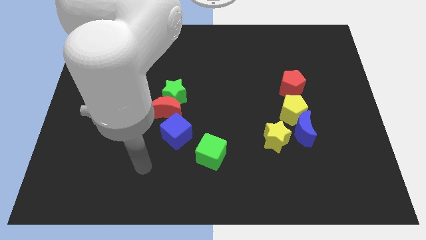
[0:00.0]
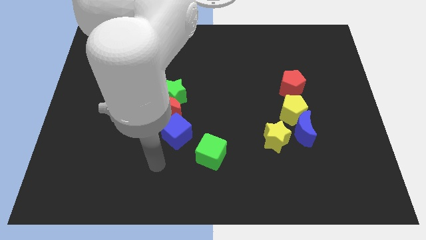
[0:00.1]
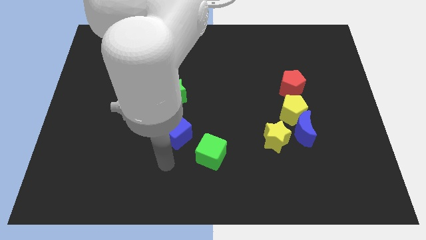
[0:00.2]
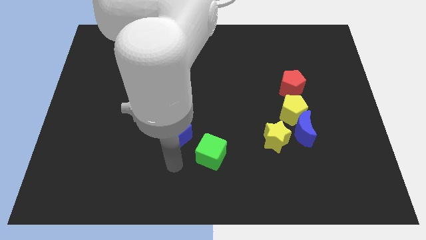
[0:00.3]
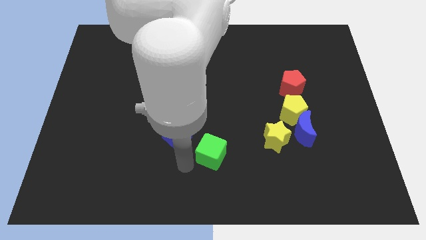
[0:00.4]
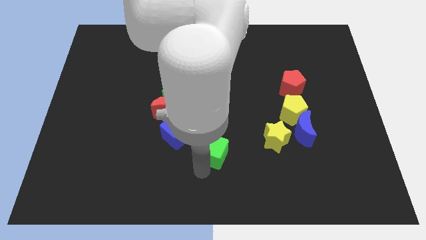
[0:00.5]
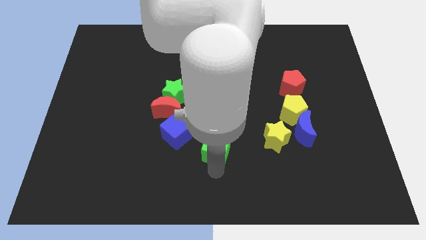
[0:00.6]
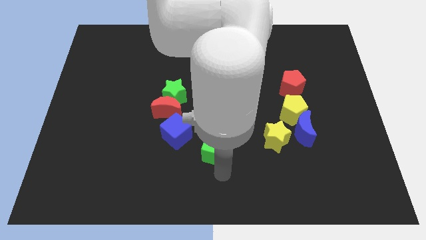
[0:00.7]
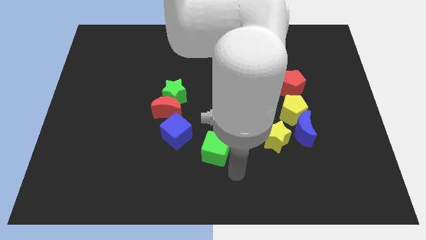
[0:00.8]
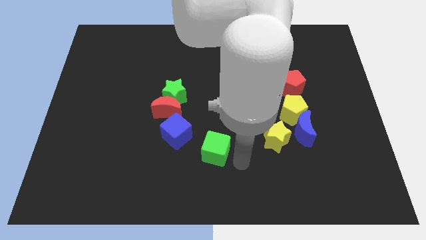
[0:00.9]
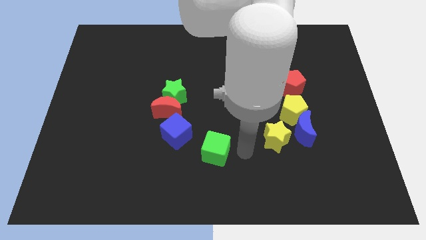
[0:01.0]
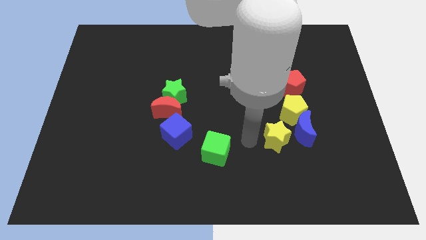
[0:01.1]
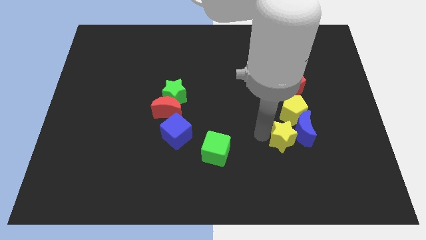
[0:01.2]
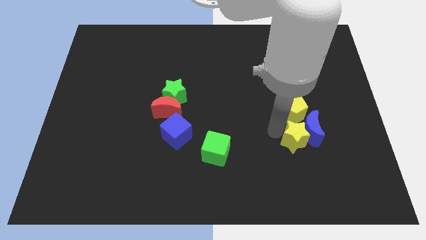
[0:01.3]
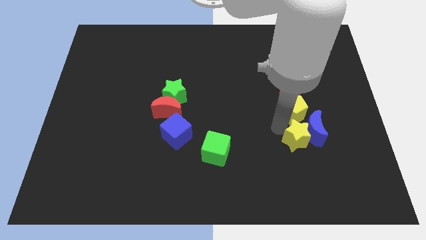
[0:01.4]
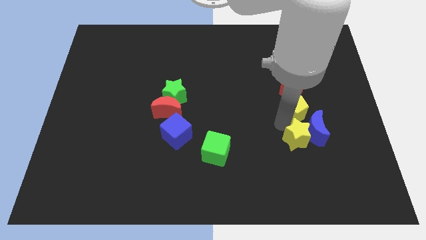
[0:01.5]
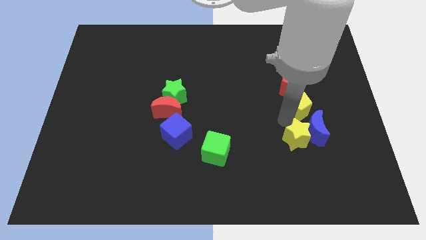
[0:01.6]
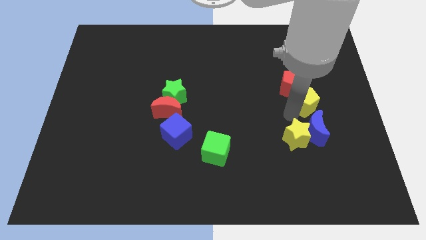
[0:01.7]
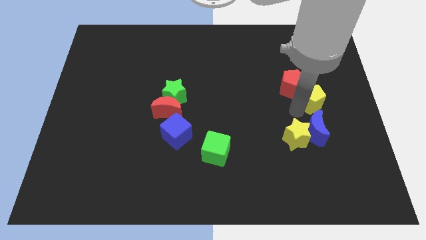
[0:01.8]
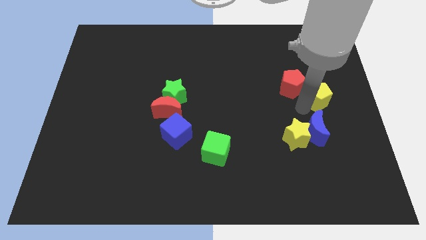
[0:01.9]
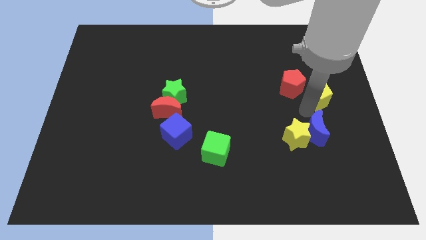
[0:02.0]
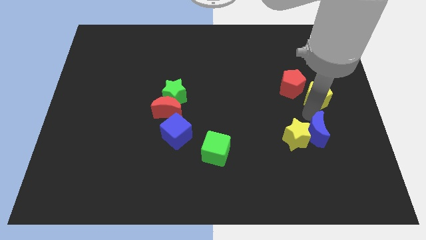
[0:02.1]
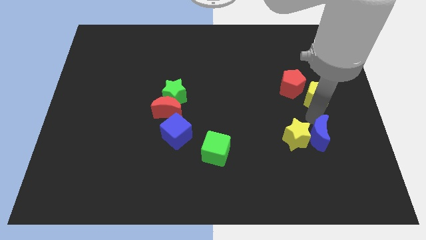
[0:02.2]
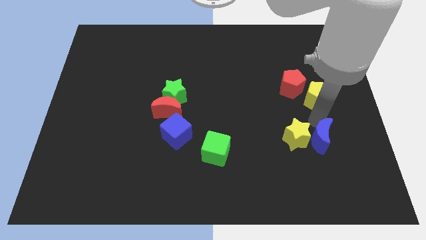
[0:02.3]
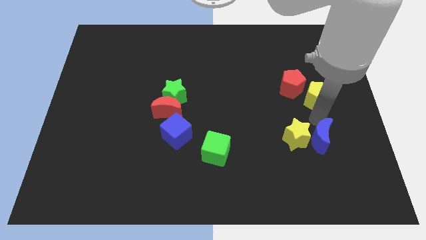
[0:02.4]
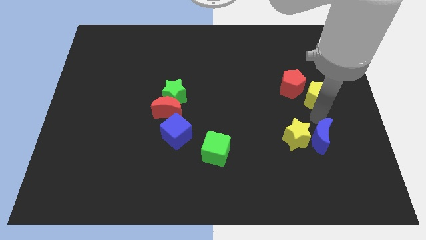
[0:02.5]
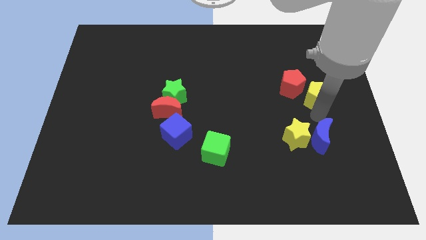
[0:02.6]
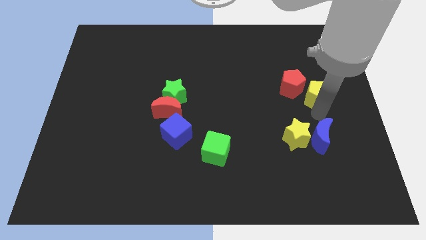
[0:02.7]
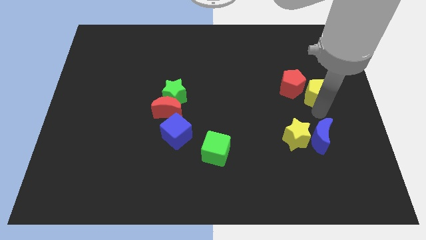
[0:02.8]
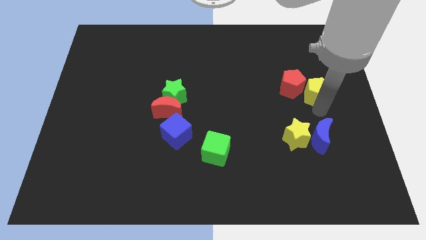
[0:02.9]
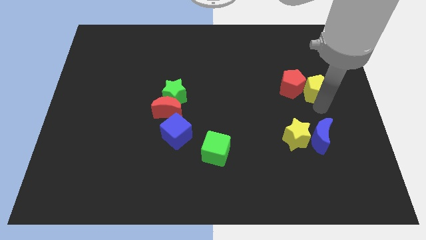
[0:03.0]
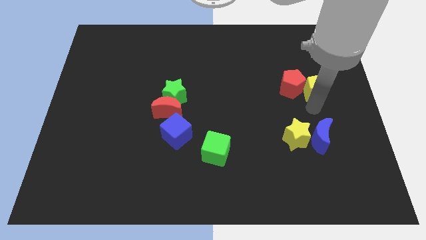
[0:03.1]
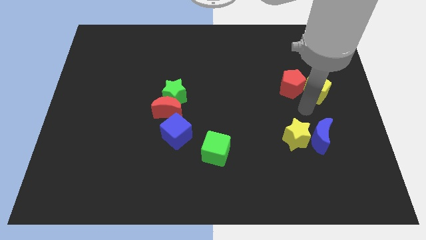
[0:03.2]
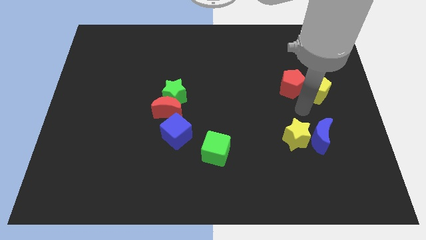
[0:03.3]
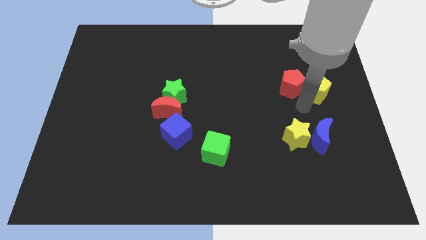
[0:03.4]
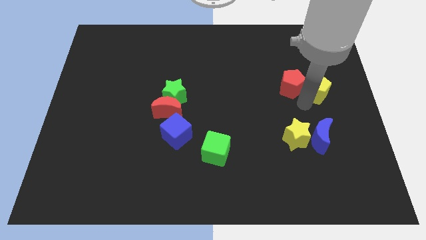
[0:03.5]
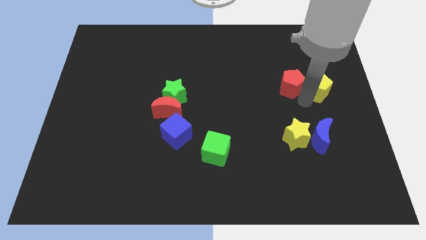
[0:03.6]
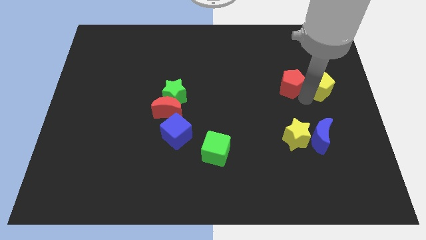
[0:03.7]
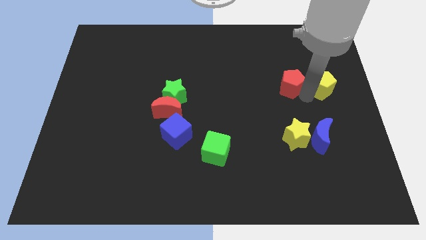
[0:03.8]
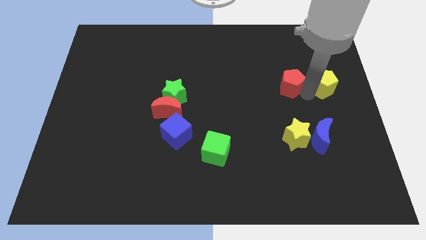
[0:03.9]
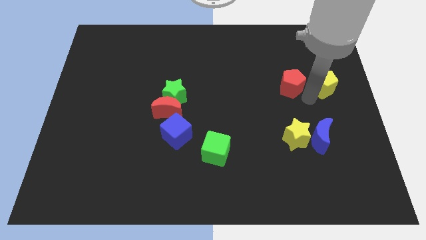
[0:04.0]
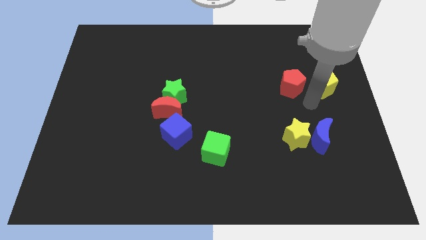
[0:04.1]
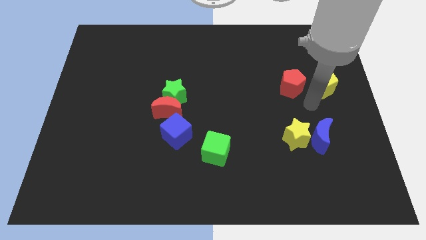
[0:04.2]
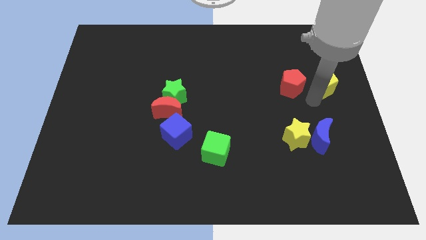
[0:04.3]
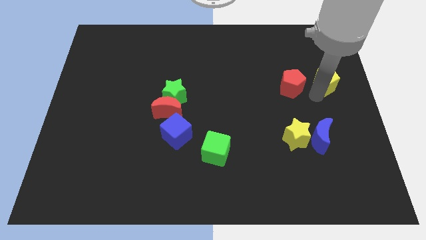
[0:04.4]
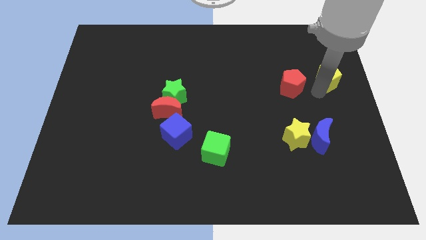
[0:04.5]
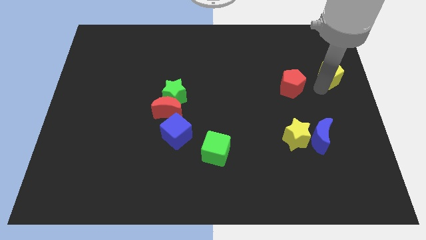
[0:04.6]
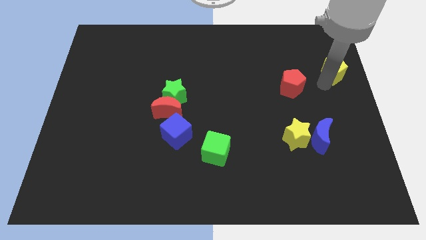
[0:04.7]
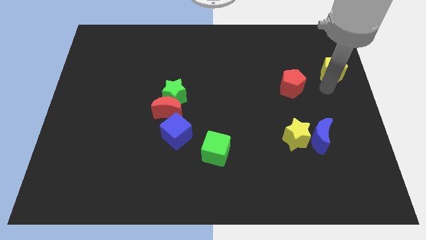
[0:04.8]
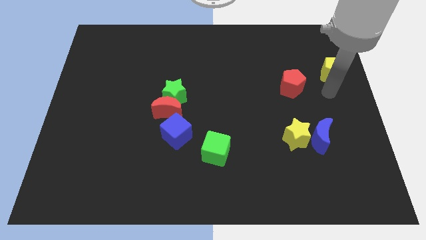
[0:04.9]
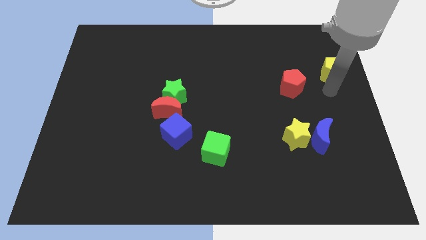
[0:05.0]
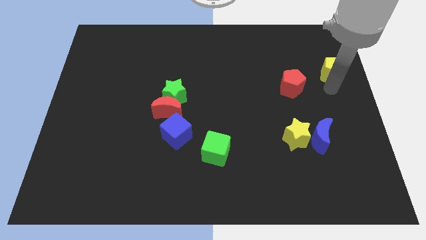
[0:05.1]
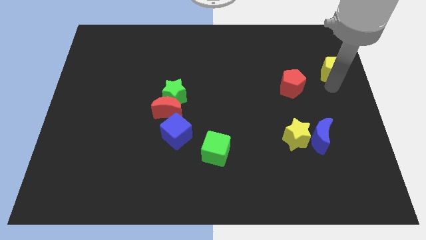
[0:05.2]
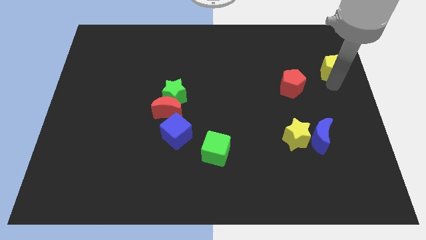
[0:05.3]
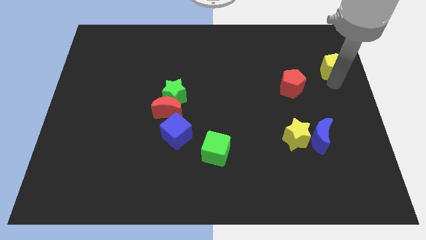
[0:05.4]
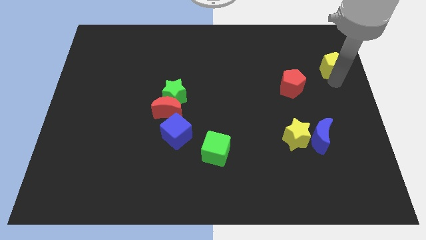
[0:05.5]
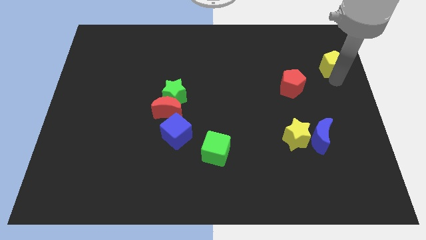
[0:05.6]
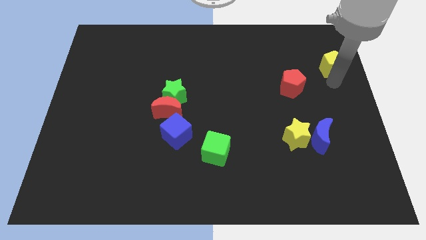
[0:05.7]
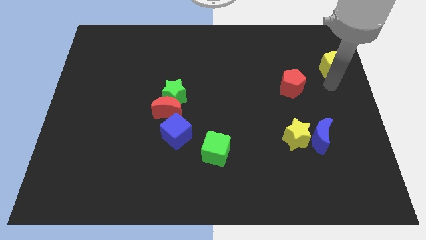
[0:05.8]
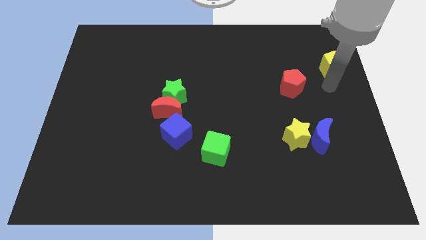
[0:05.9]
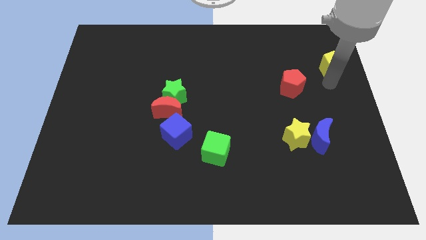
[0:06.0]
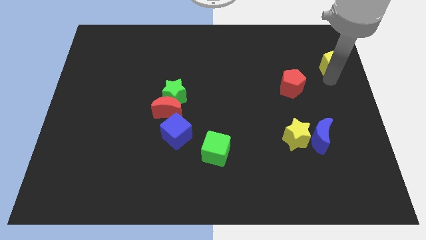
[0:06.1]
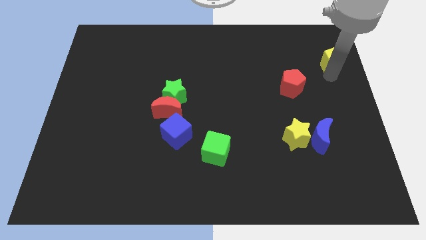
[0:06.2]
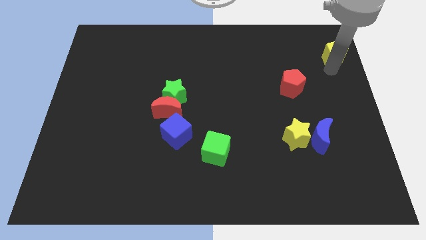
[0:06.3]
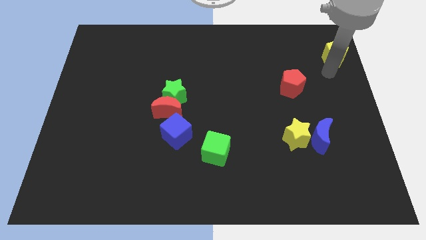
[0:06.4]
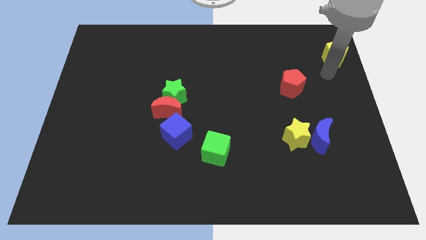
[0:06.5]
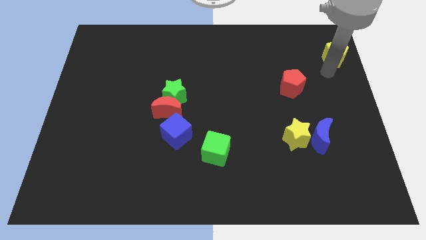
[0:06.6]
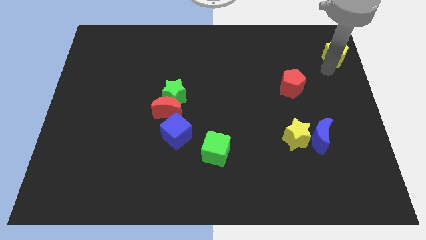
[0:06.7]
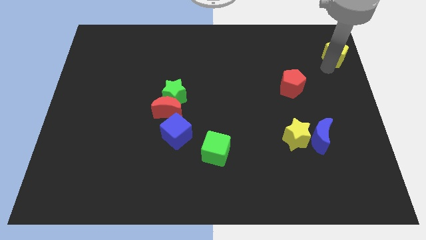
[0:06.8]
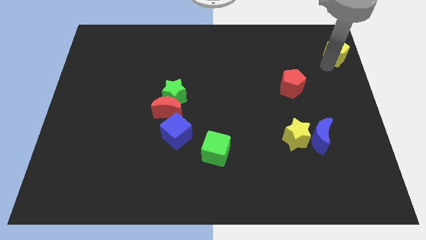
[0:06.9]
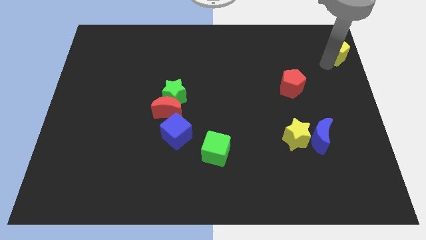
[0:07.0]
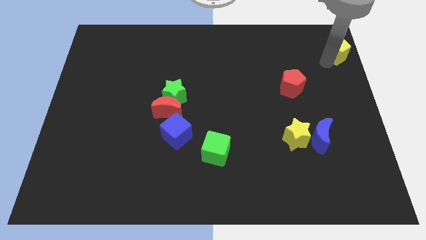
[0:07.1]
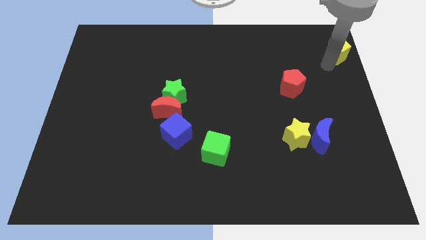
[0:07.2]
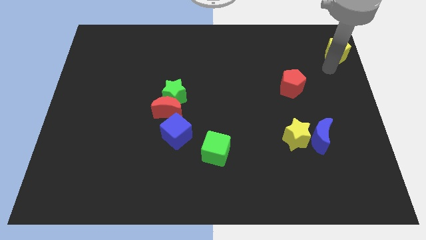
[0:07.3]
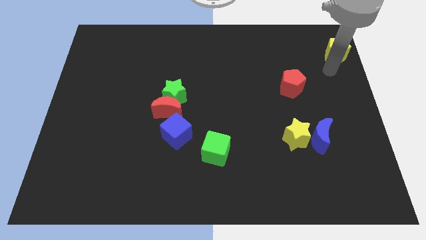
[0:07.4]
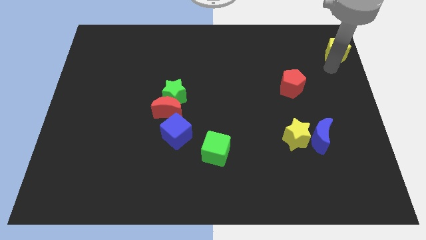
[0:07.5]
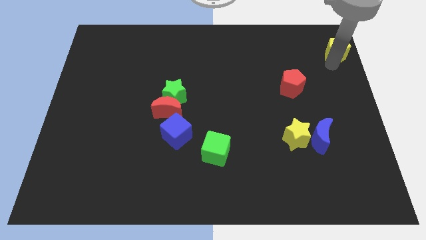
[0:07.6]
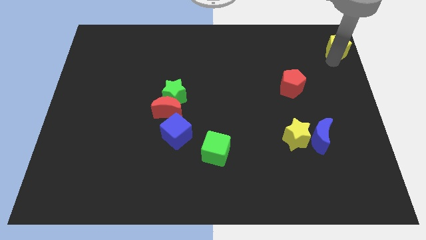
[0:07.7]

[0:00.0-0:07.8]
move the yellow pentagon to the upper right corner
